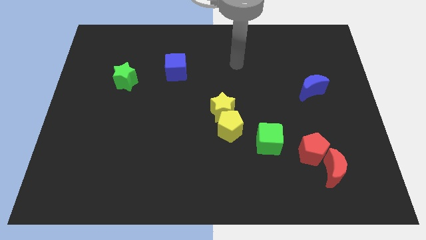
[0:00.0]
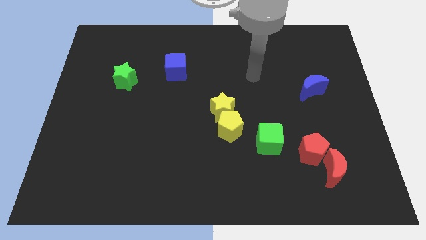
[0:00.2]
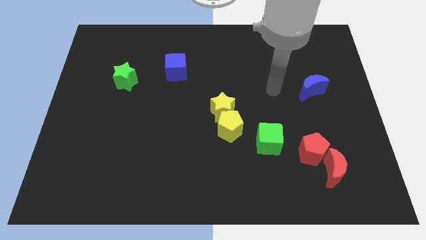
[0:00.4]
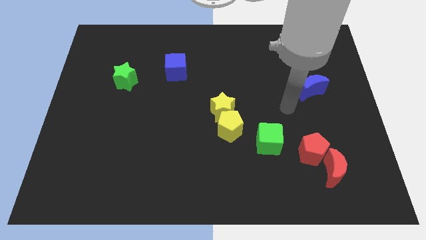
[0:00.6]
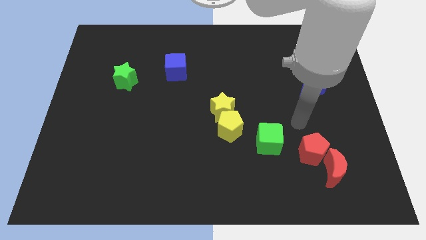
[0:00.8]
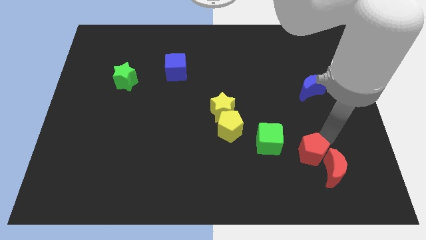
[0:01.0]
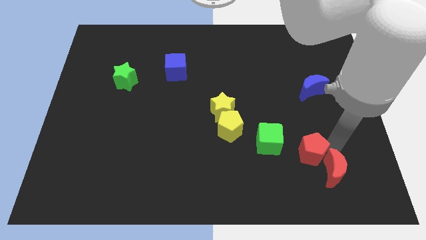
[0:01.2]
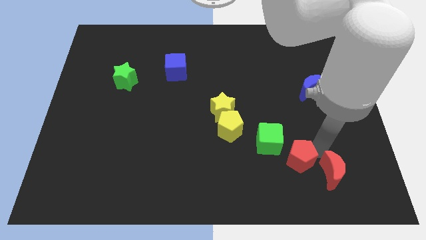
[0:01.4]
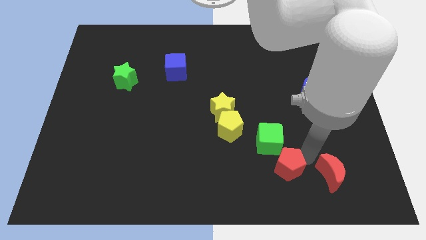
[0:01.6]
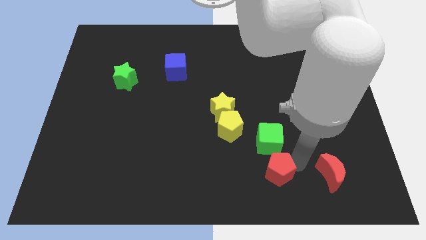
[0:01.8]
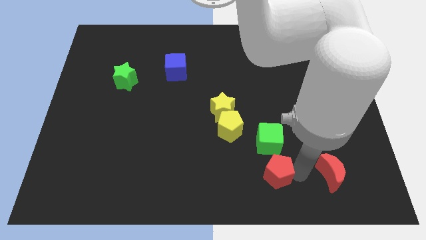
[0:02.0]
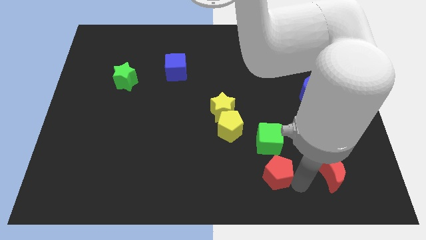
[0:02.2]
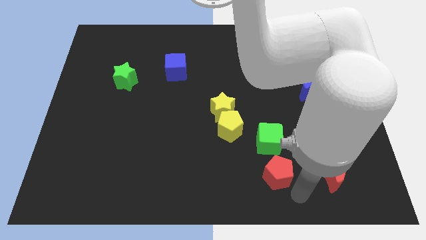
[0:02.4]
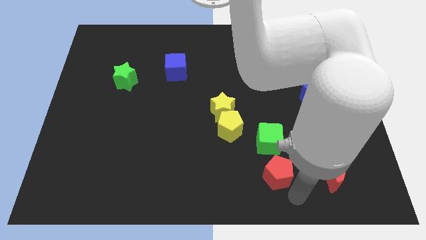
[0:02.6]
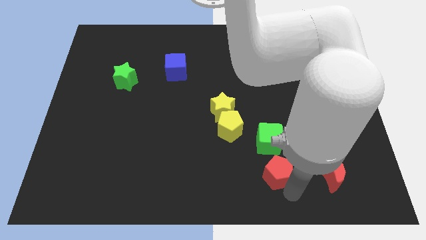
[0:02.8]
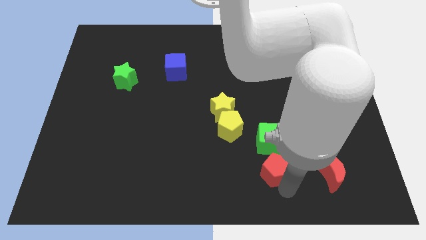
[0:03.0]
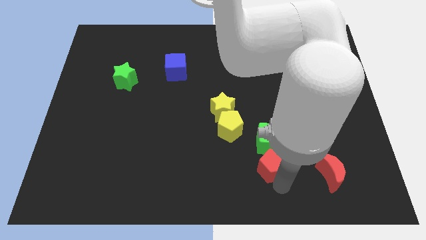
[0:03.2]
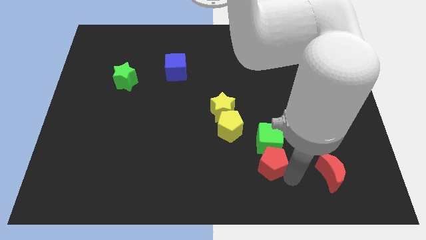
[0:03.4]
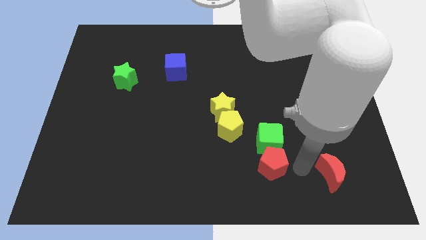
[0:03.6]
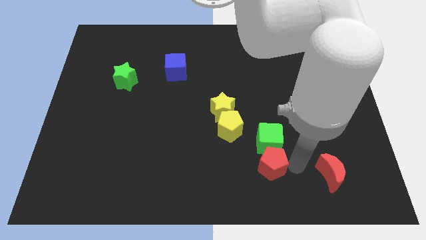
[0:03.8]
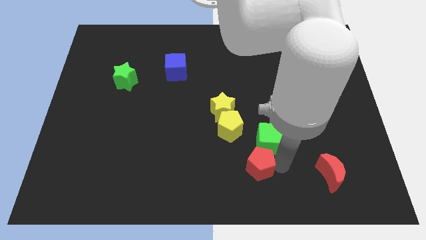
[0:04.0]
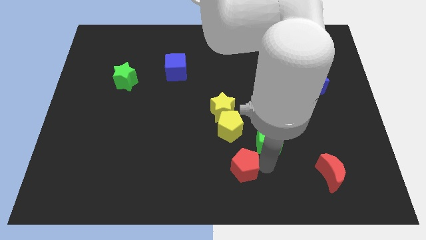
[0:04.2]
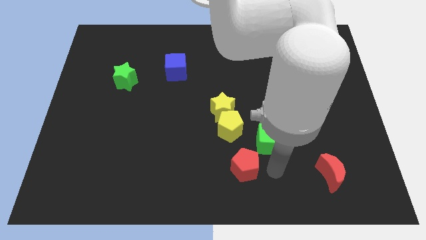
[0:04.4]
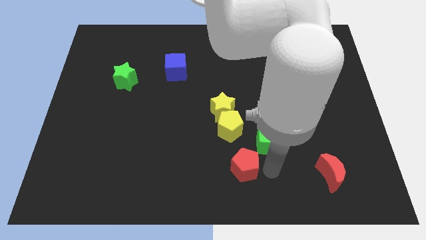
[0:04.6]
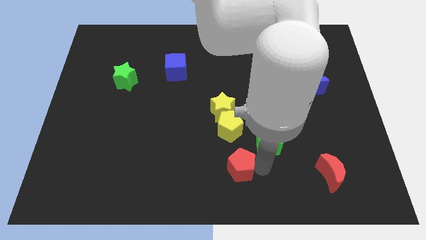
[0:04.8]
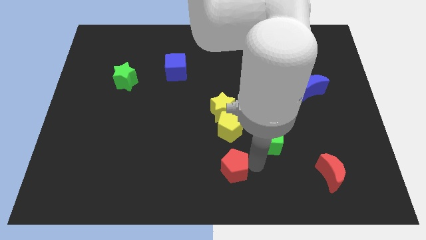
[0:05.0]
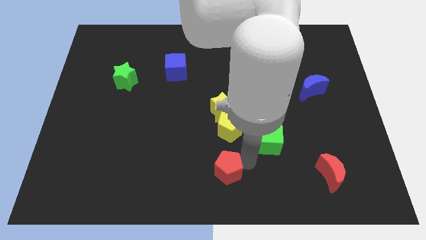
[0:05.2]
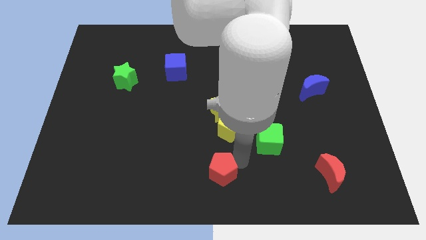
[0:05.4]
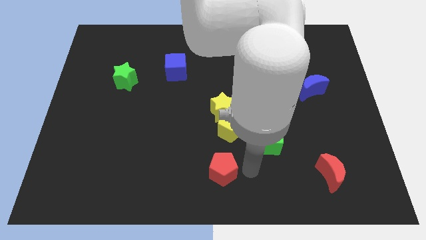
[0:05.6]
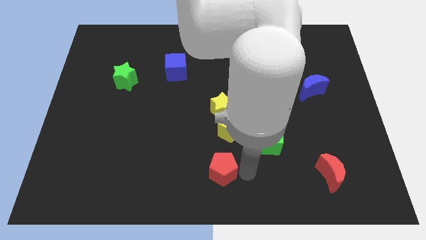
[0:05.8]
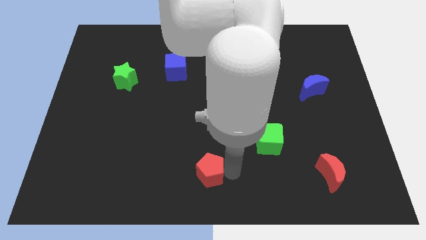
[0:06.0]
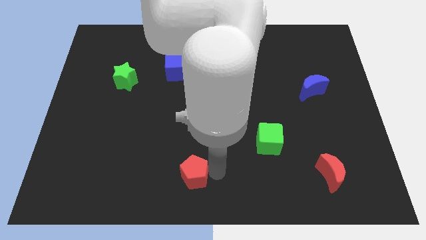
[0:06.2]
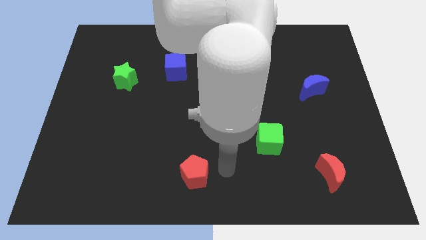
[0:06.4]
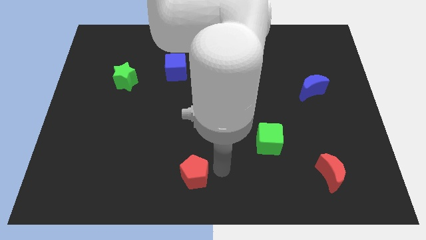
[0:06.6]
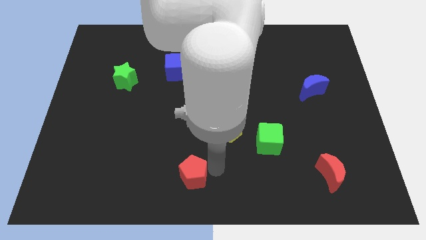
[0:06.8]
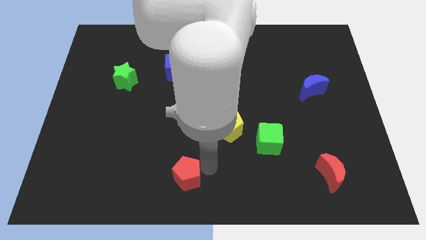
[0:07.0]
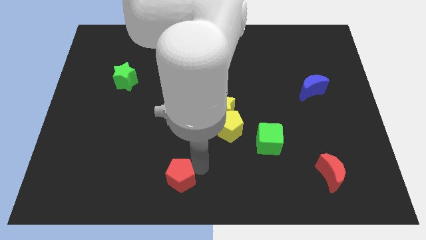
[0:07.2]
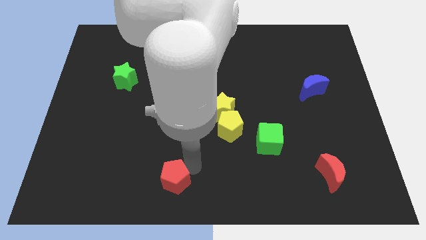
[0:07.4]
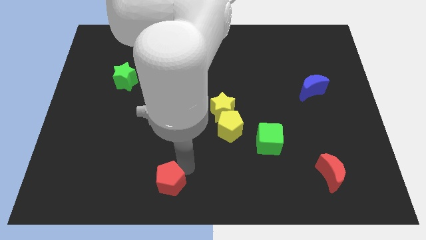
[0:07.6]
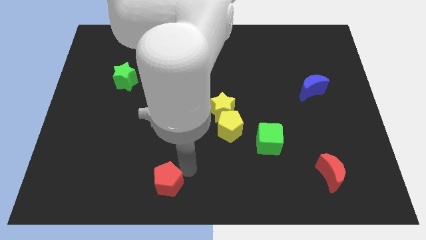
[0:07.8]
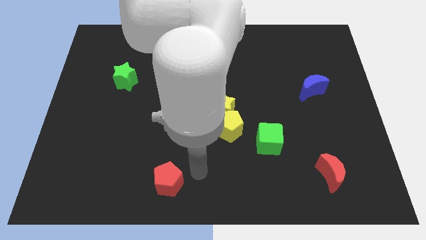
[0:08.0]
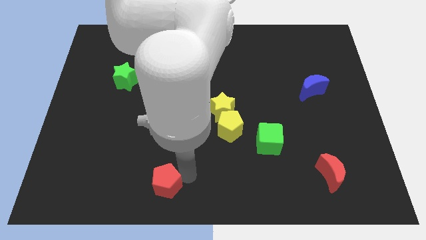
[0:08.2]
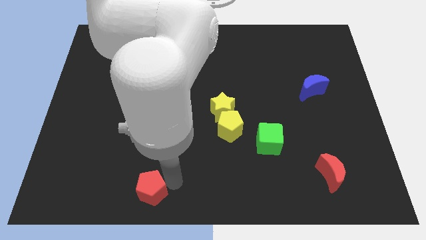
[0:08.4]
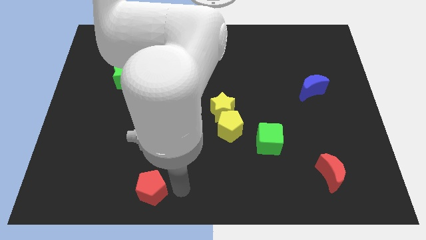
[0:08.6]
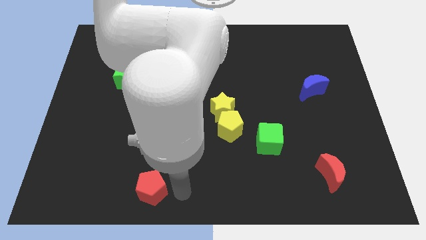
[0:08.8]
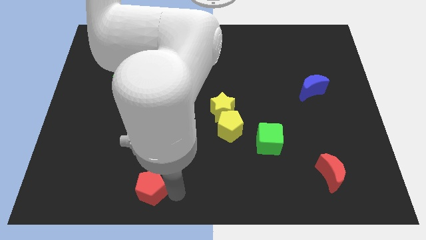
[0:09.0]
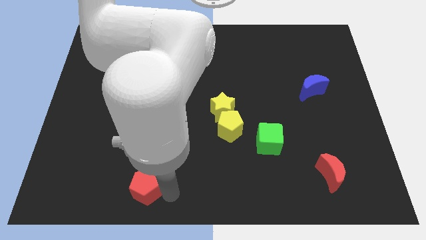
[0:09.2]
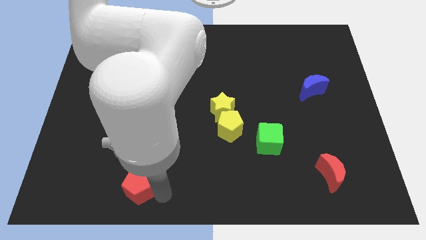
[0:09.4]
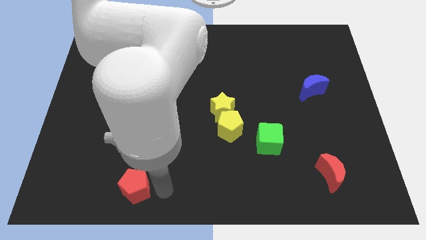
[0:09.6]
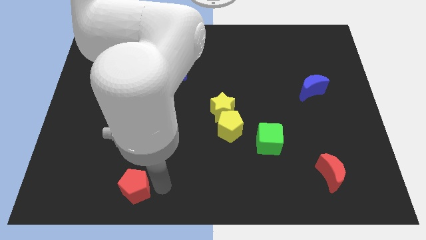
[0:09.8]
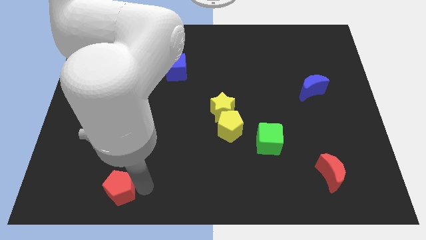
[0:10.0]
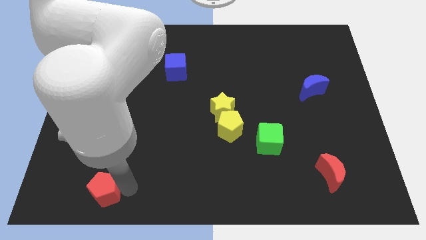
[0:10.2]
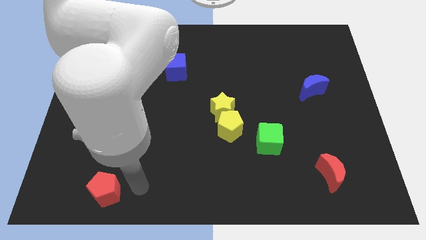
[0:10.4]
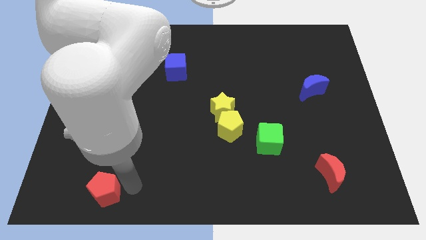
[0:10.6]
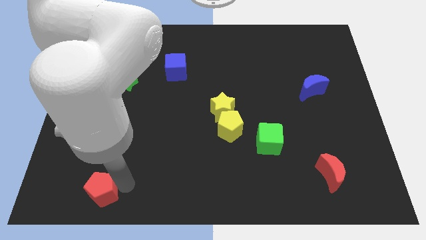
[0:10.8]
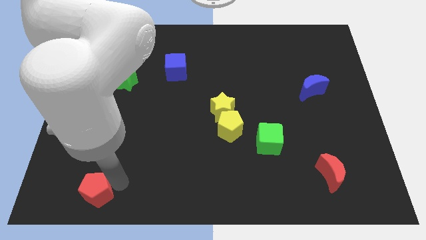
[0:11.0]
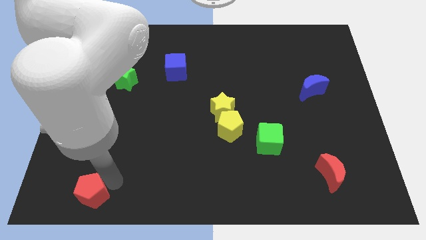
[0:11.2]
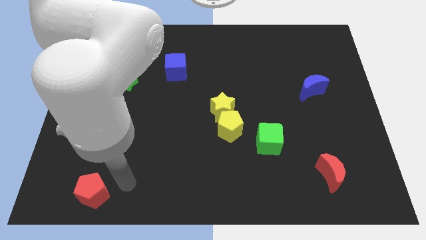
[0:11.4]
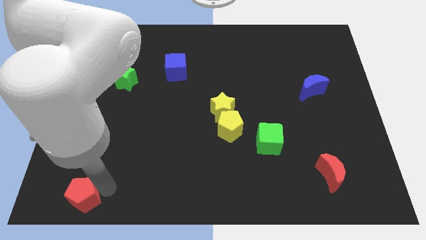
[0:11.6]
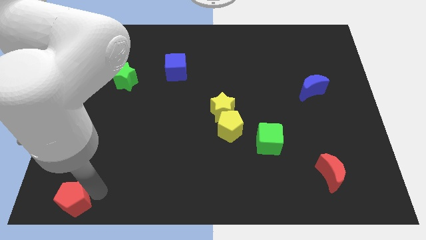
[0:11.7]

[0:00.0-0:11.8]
slide the red pentagon to the lower left corner
